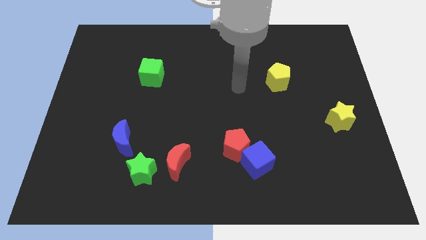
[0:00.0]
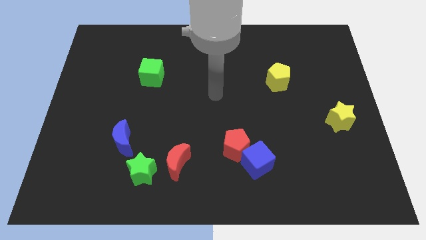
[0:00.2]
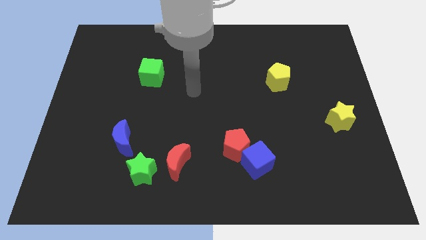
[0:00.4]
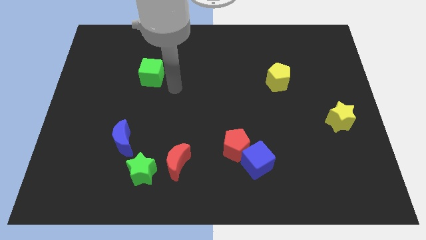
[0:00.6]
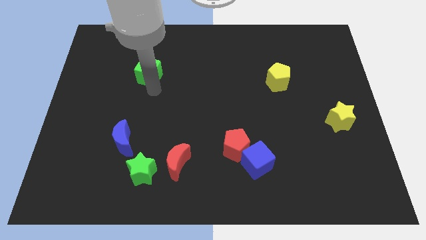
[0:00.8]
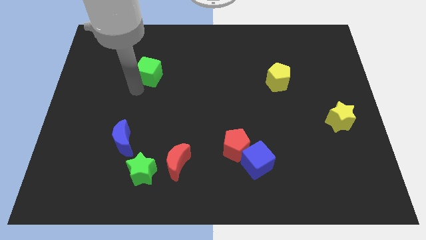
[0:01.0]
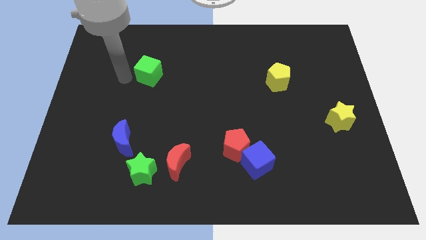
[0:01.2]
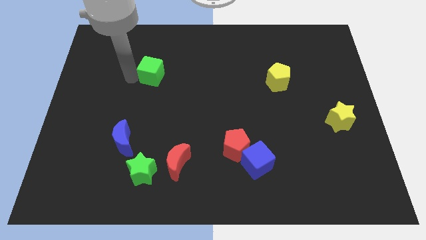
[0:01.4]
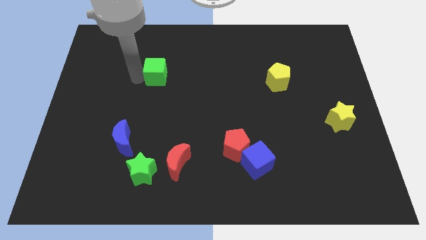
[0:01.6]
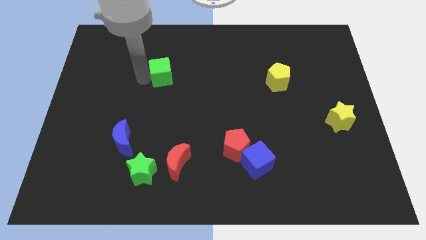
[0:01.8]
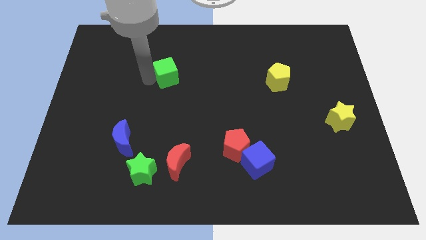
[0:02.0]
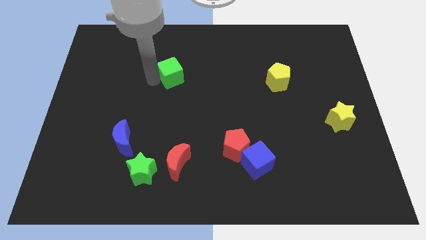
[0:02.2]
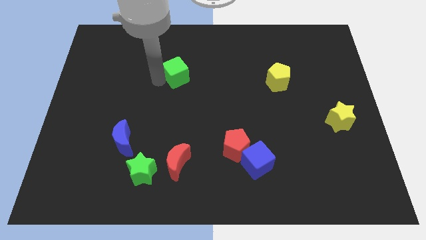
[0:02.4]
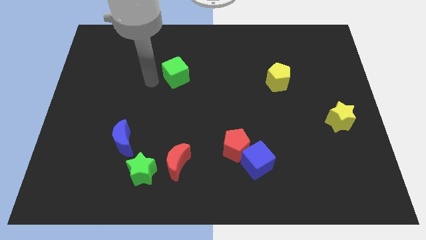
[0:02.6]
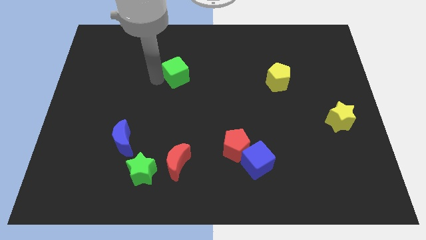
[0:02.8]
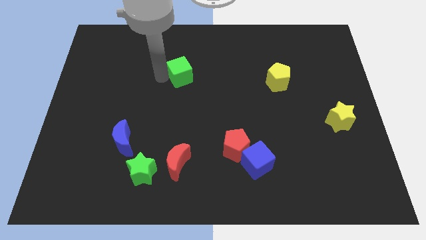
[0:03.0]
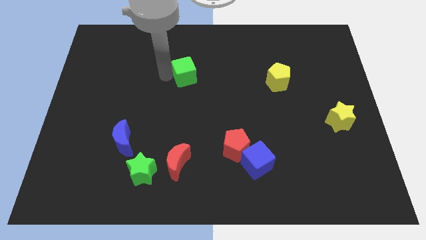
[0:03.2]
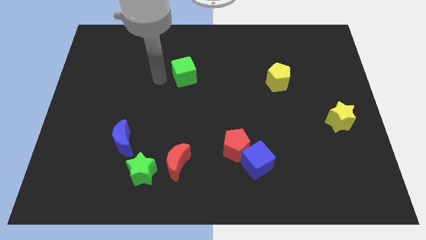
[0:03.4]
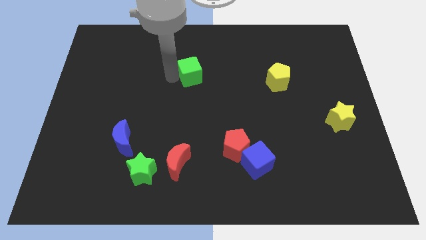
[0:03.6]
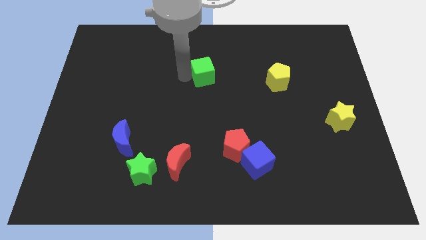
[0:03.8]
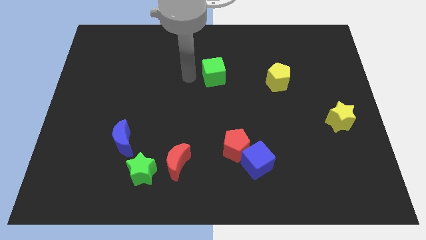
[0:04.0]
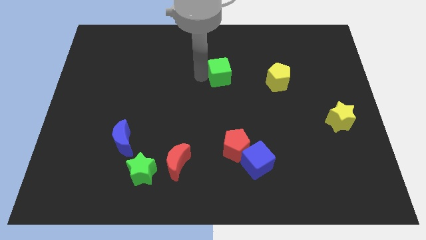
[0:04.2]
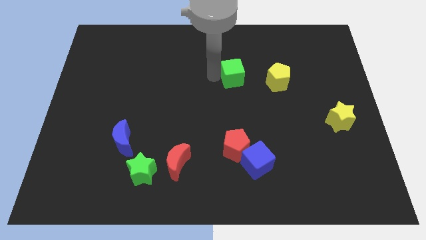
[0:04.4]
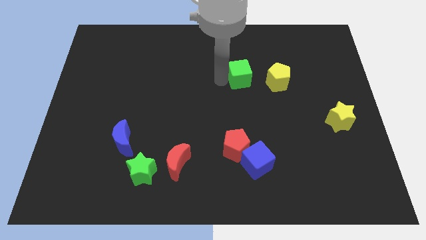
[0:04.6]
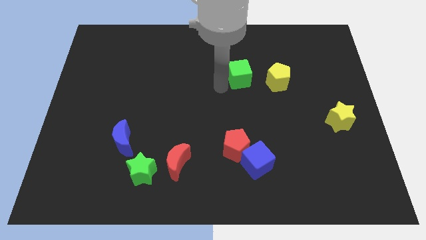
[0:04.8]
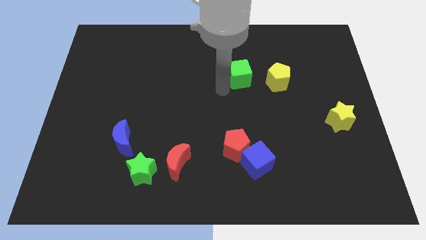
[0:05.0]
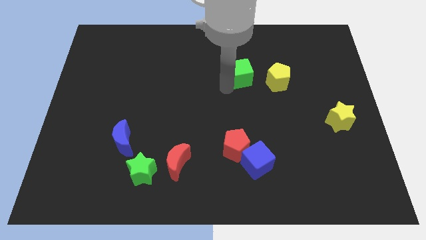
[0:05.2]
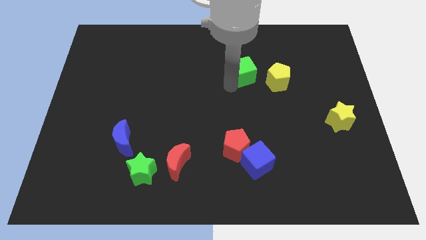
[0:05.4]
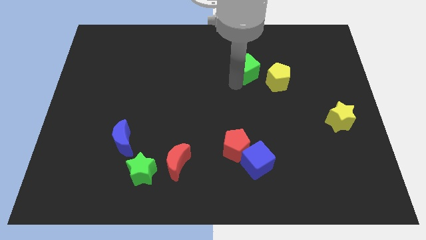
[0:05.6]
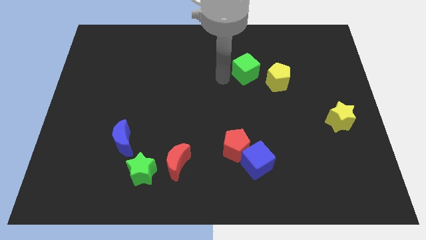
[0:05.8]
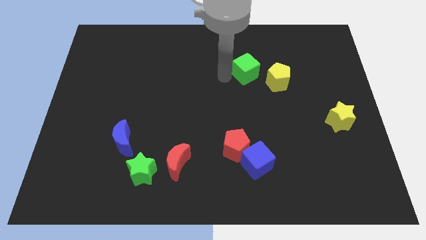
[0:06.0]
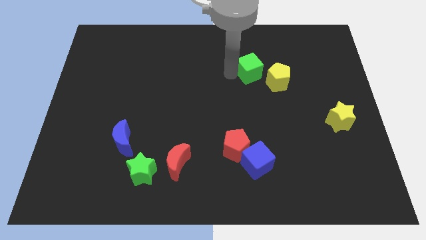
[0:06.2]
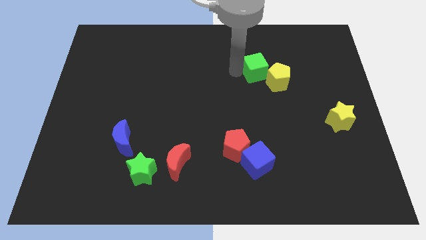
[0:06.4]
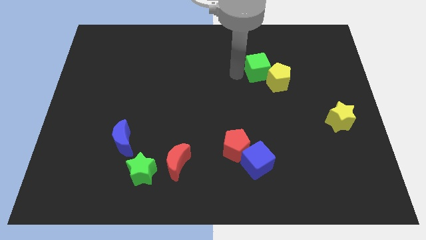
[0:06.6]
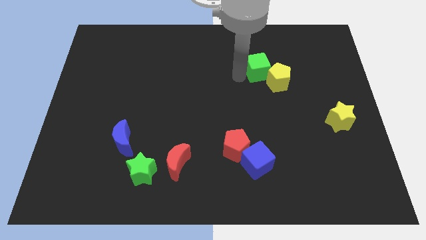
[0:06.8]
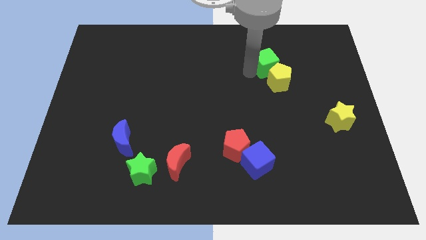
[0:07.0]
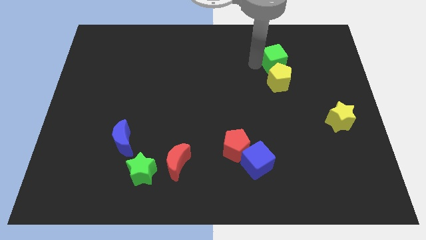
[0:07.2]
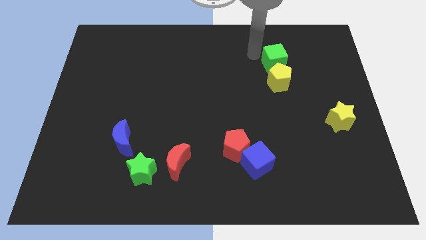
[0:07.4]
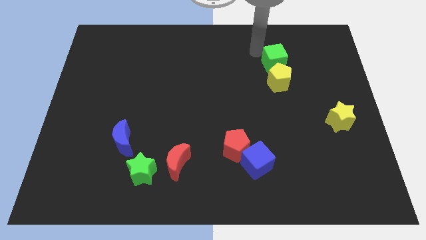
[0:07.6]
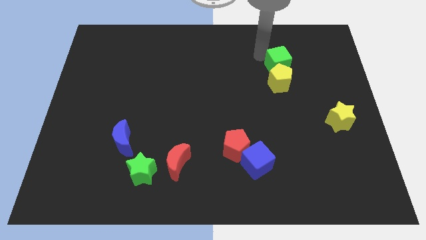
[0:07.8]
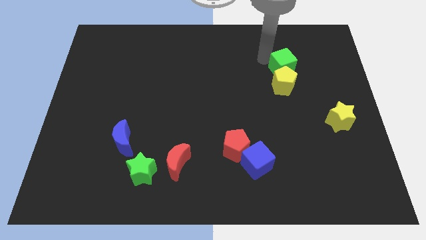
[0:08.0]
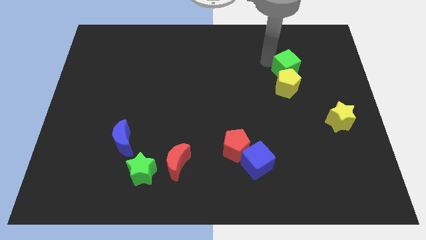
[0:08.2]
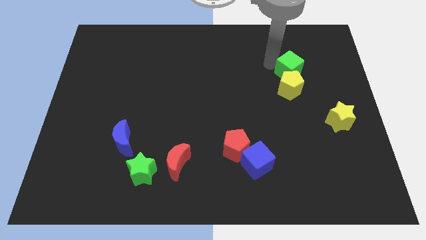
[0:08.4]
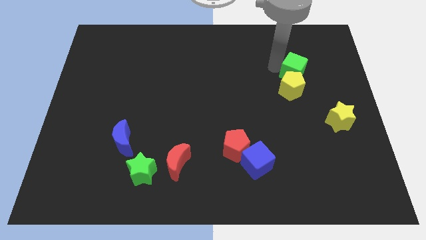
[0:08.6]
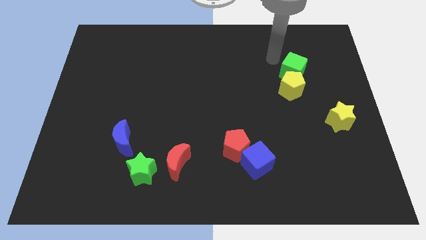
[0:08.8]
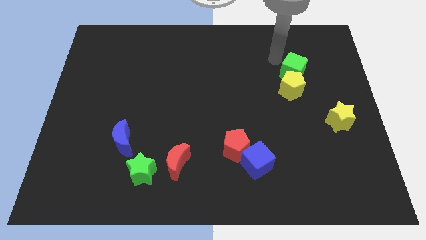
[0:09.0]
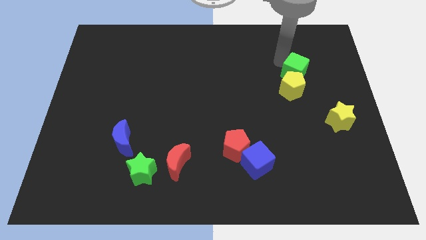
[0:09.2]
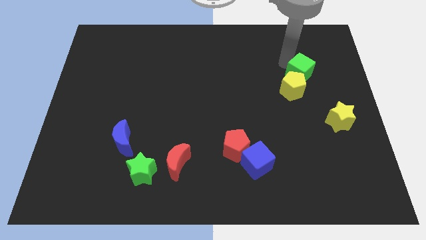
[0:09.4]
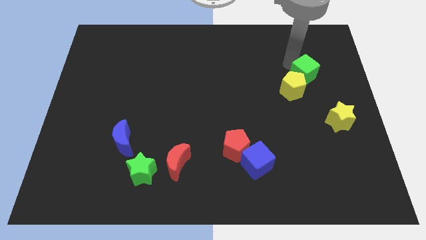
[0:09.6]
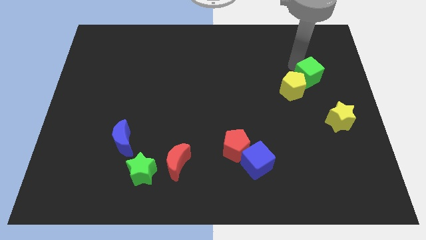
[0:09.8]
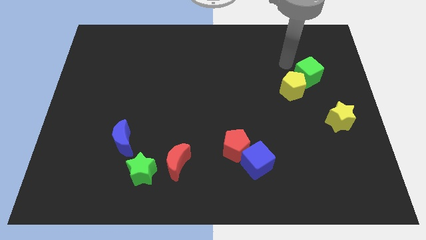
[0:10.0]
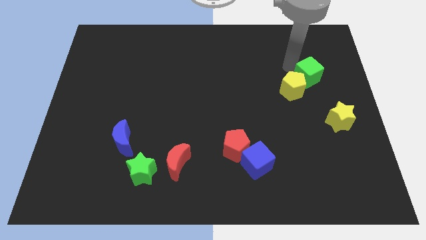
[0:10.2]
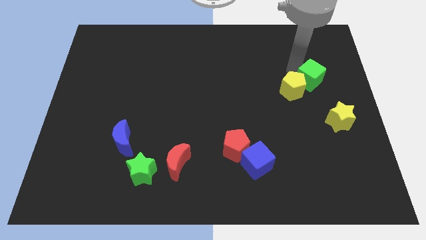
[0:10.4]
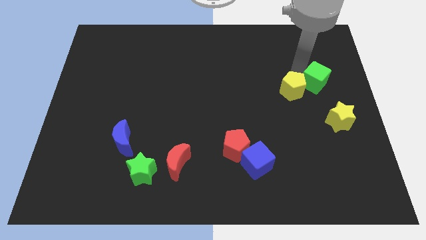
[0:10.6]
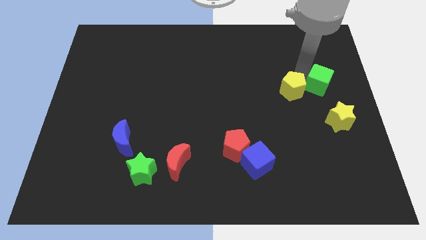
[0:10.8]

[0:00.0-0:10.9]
move the green cube to the right side
